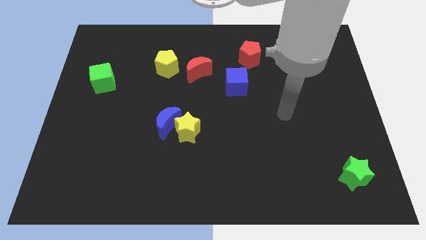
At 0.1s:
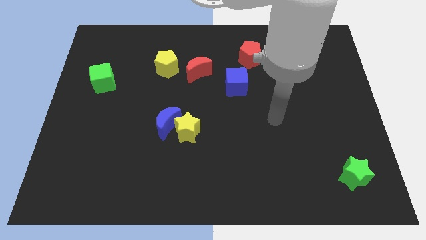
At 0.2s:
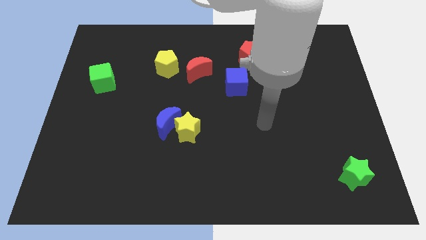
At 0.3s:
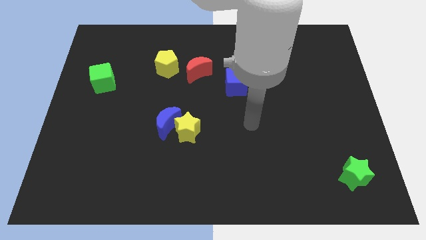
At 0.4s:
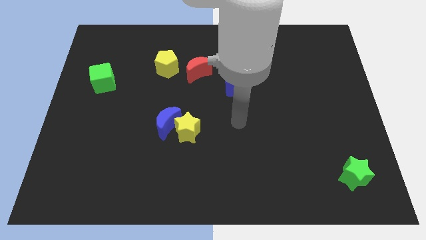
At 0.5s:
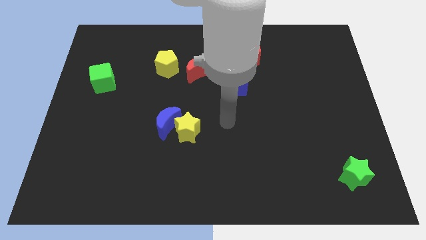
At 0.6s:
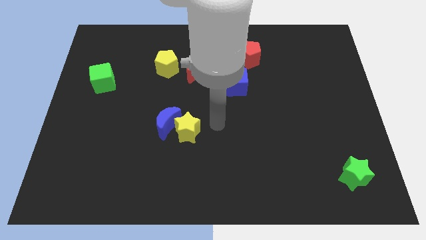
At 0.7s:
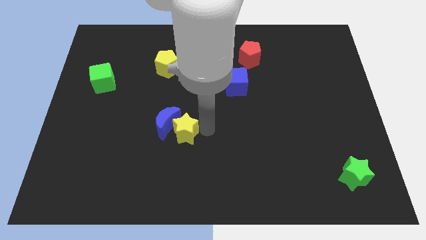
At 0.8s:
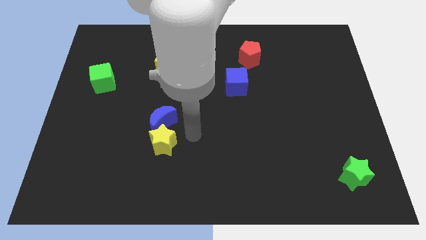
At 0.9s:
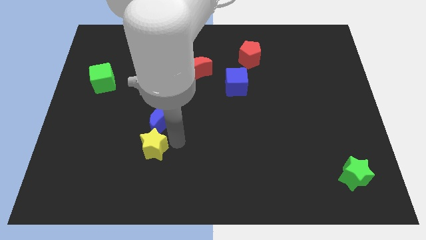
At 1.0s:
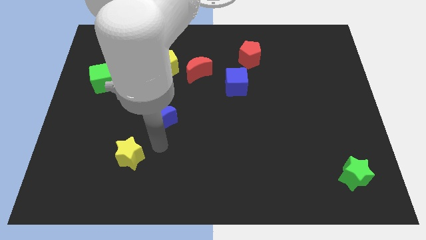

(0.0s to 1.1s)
separate the blue moon from the yellow star

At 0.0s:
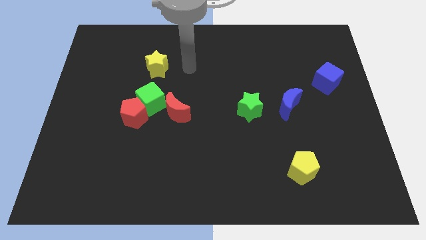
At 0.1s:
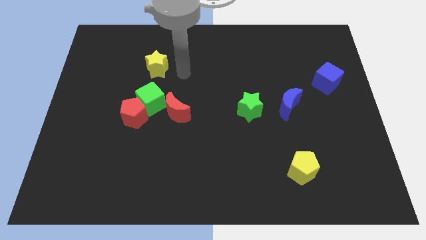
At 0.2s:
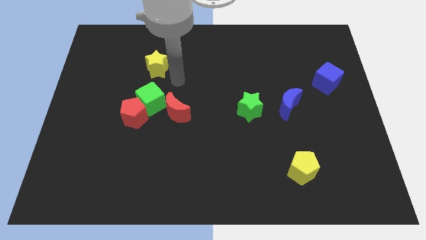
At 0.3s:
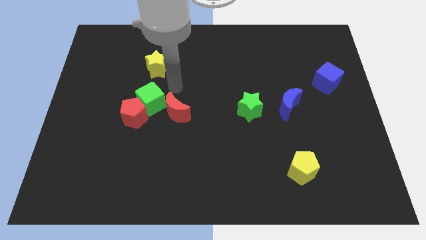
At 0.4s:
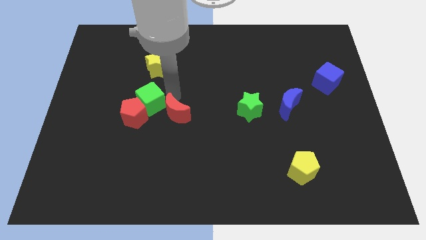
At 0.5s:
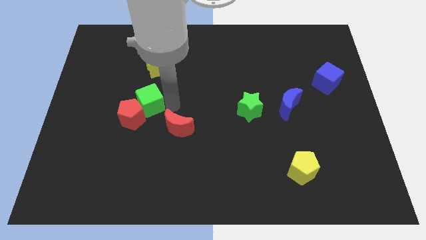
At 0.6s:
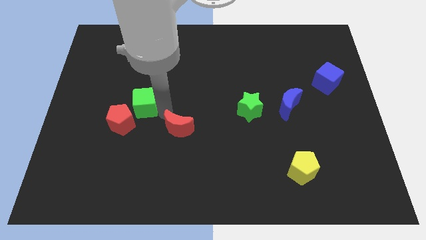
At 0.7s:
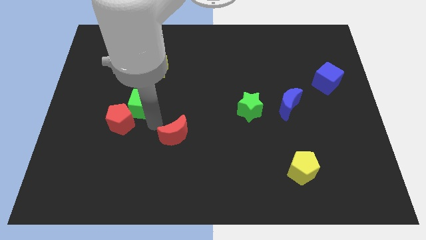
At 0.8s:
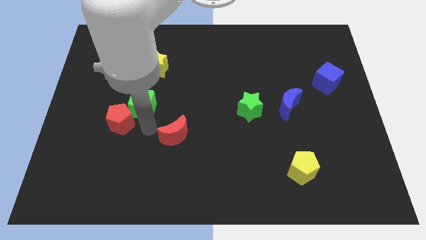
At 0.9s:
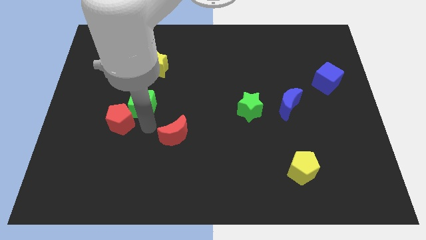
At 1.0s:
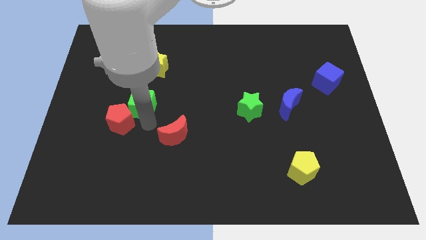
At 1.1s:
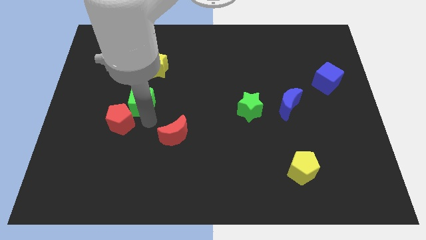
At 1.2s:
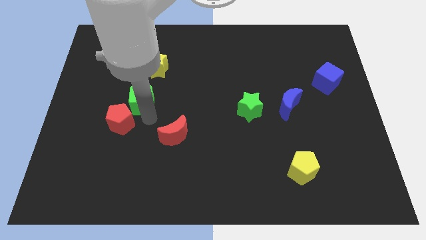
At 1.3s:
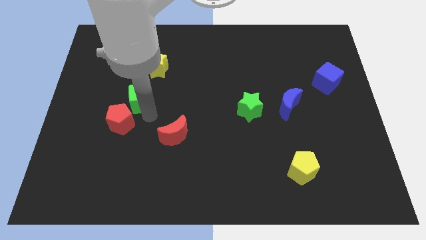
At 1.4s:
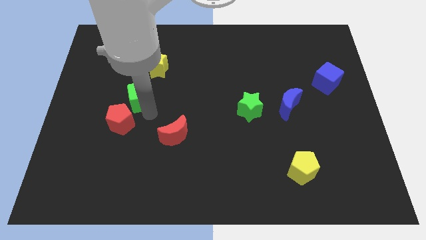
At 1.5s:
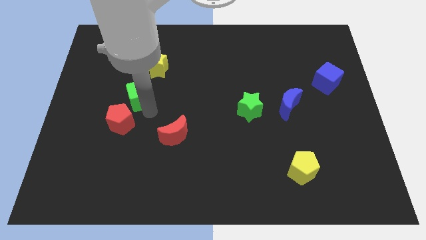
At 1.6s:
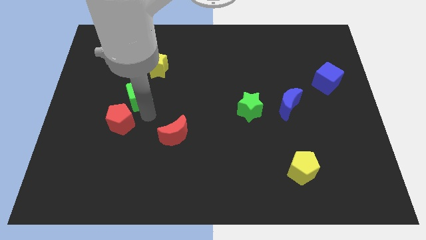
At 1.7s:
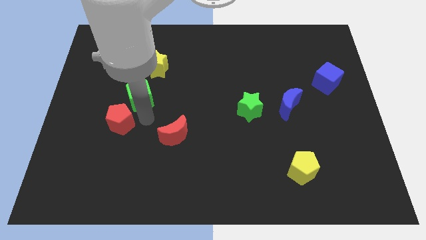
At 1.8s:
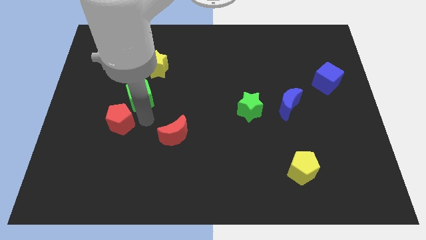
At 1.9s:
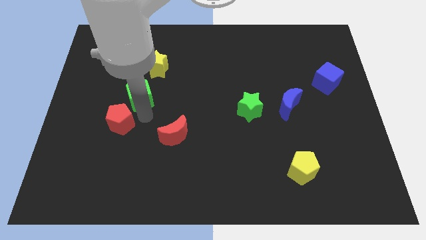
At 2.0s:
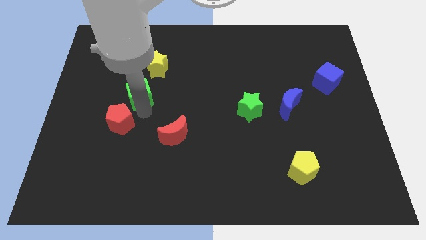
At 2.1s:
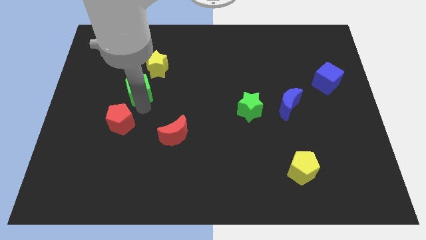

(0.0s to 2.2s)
move the green cube away from the red pentagon and red moon

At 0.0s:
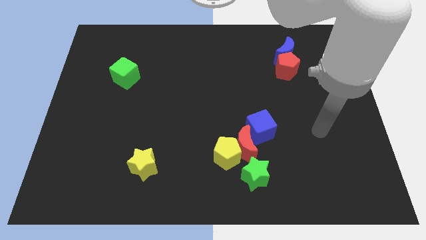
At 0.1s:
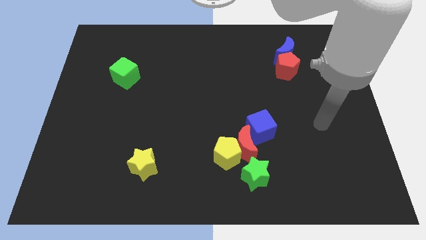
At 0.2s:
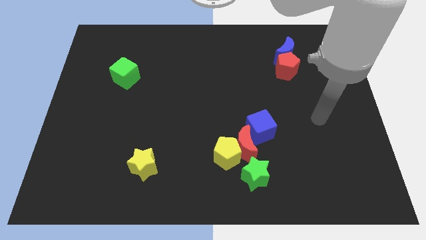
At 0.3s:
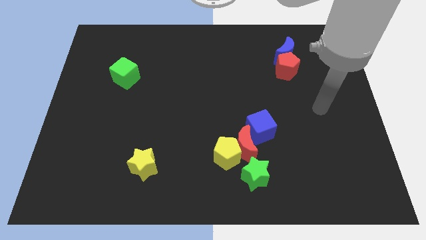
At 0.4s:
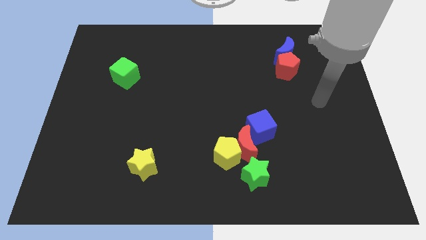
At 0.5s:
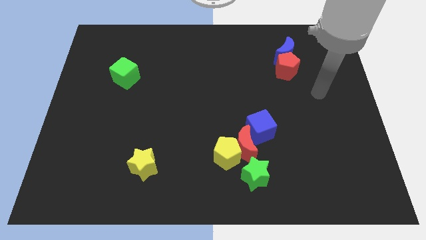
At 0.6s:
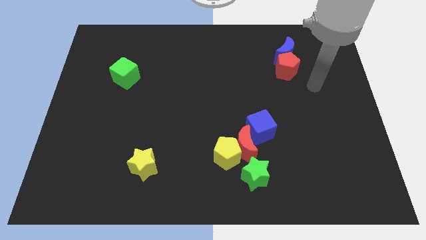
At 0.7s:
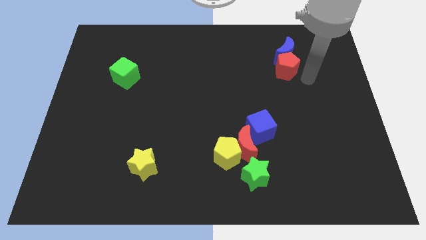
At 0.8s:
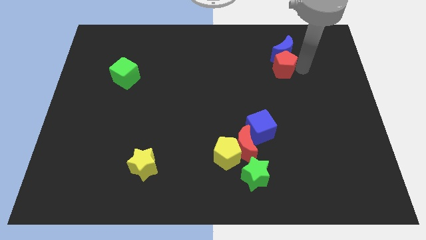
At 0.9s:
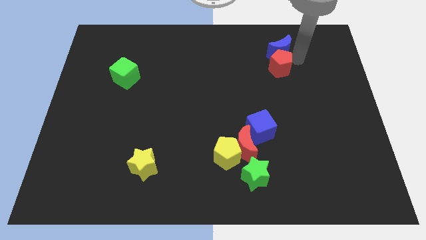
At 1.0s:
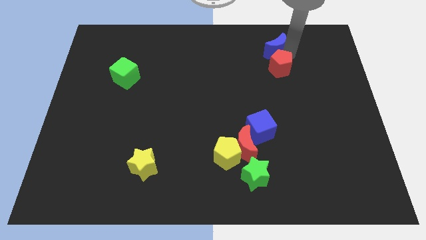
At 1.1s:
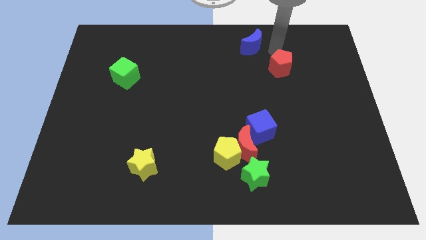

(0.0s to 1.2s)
move the red pentagon away from the blue moon

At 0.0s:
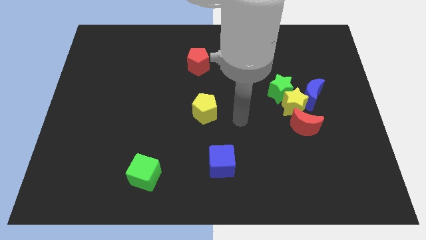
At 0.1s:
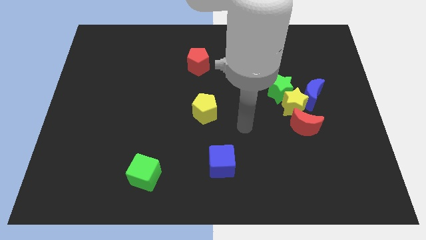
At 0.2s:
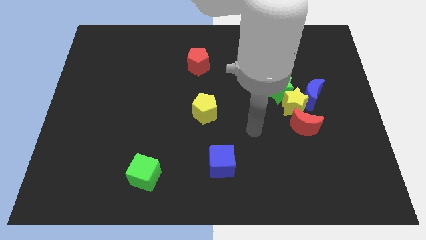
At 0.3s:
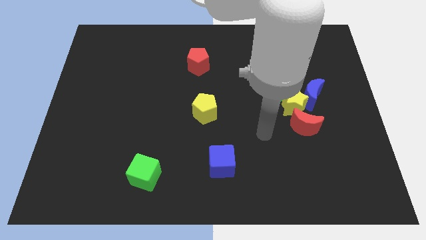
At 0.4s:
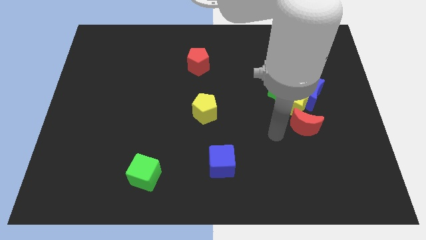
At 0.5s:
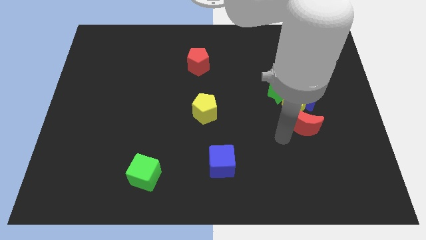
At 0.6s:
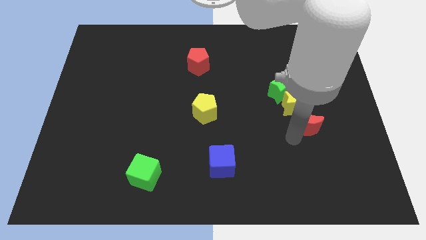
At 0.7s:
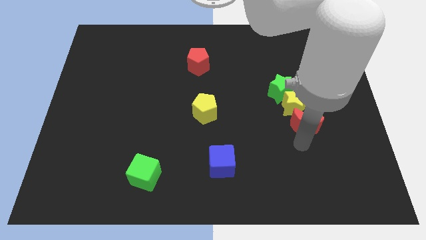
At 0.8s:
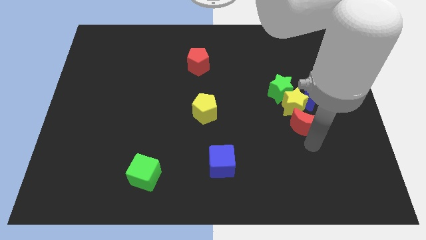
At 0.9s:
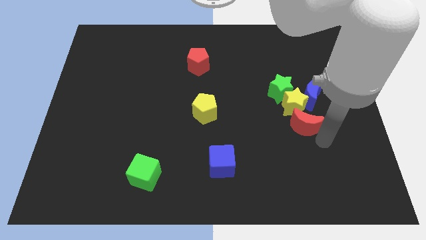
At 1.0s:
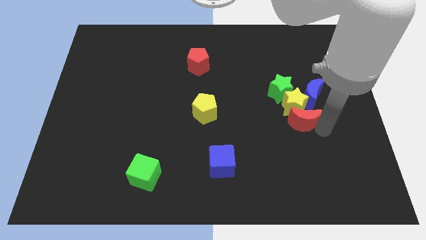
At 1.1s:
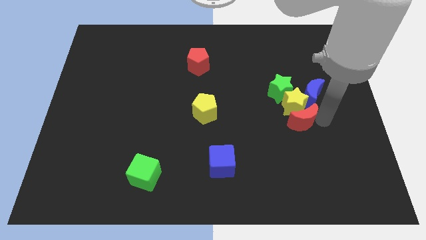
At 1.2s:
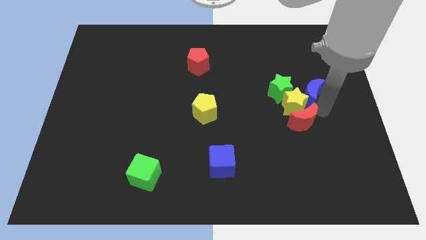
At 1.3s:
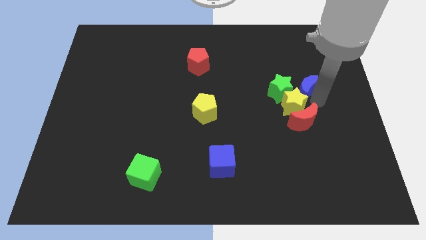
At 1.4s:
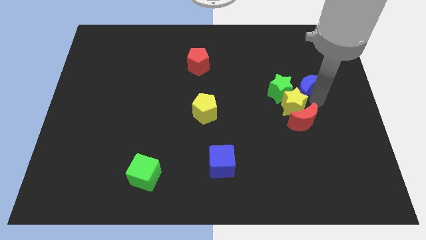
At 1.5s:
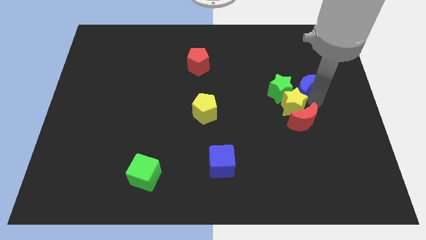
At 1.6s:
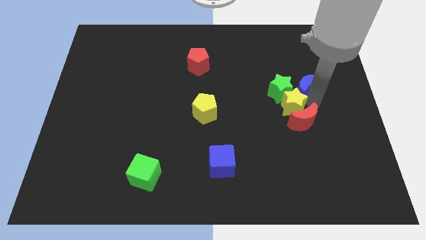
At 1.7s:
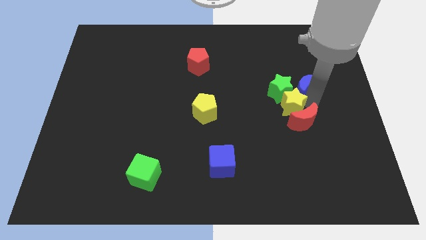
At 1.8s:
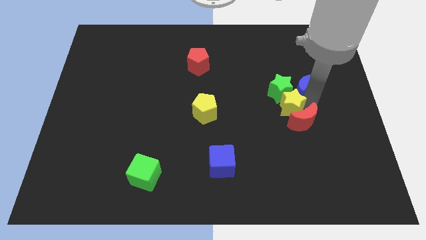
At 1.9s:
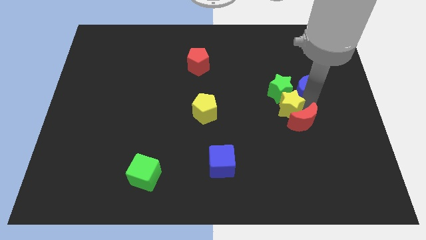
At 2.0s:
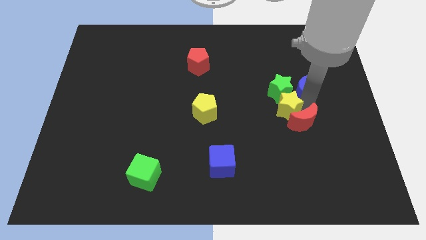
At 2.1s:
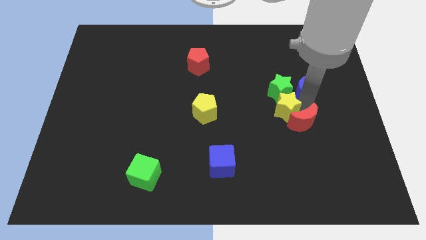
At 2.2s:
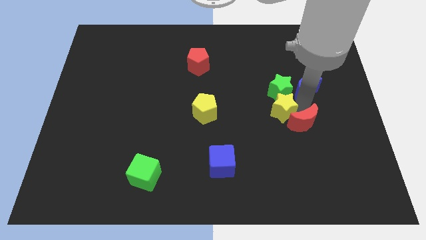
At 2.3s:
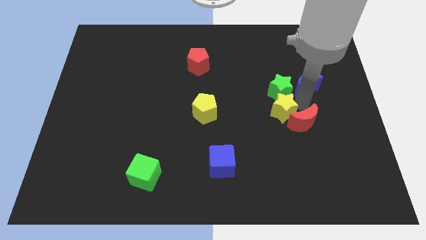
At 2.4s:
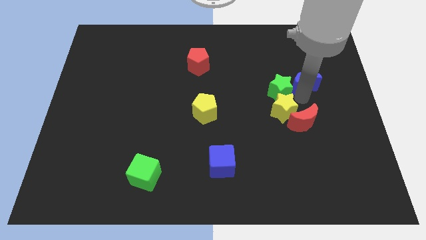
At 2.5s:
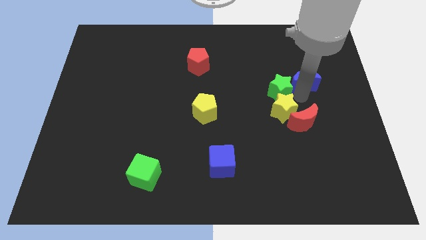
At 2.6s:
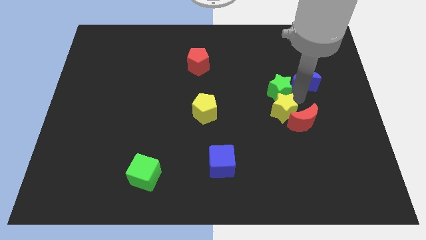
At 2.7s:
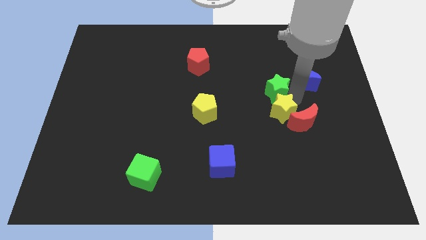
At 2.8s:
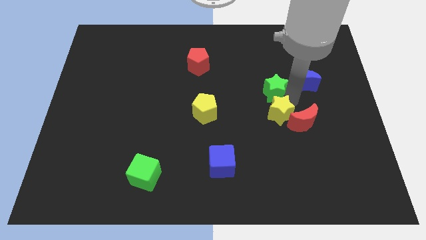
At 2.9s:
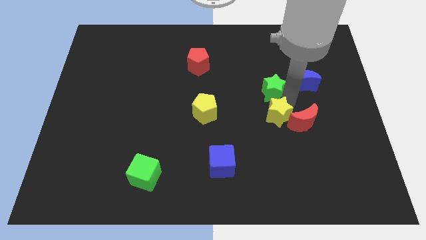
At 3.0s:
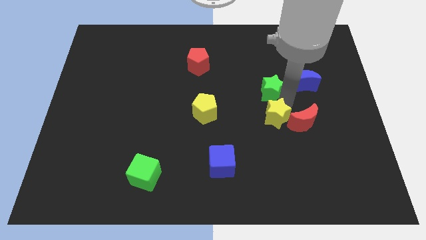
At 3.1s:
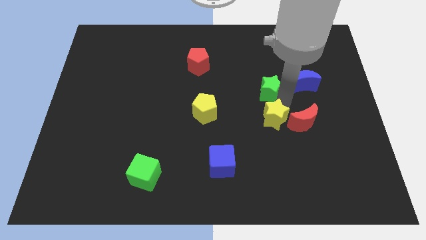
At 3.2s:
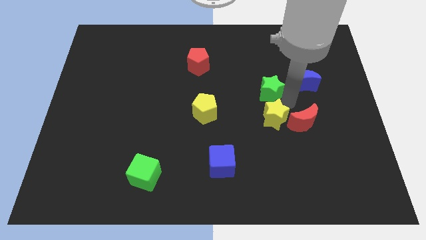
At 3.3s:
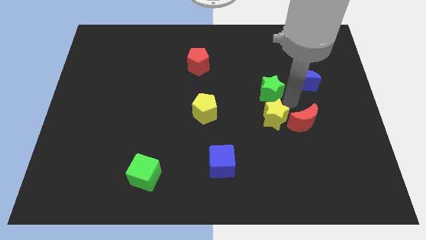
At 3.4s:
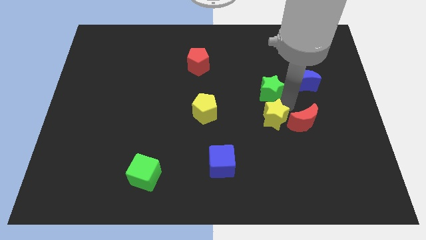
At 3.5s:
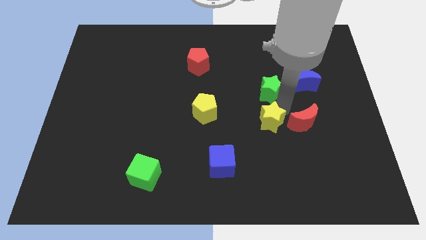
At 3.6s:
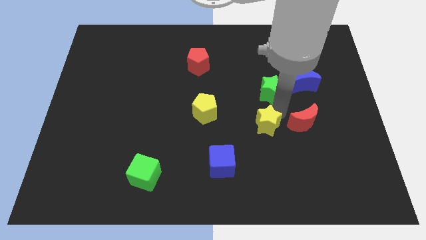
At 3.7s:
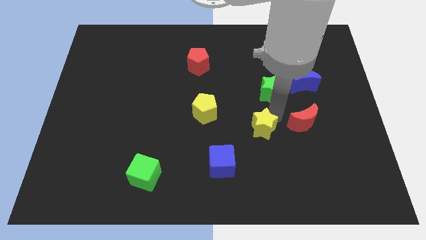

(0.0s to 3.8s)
move the yellow star away from the green star, blue moon, and red moon

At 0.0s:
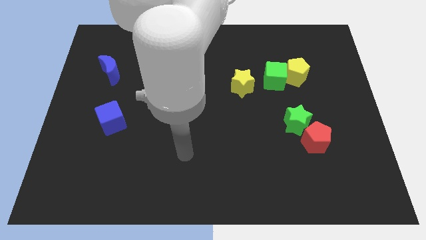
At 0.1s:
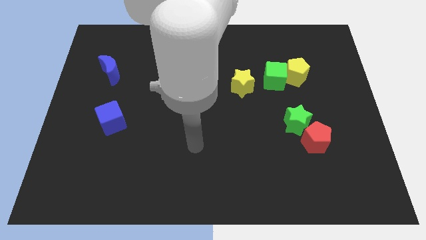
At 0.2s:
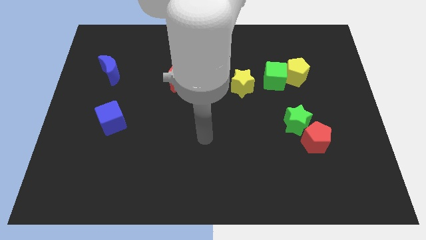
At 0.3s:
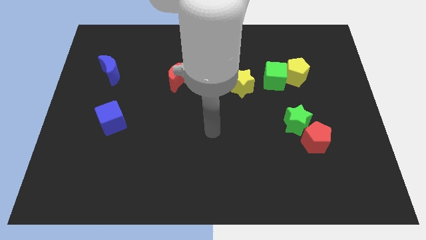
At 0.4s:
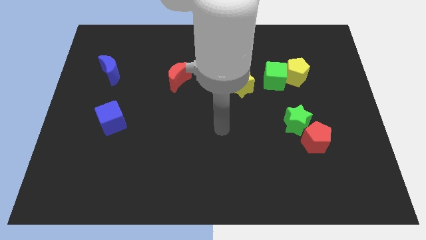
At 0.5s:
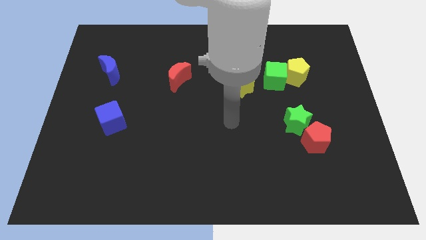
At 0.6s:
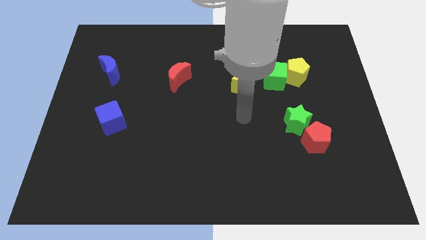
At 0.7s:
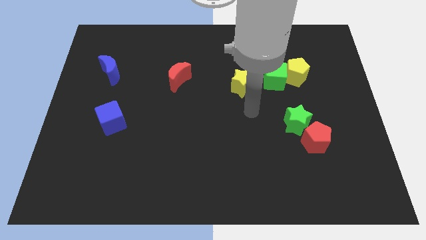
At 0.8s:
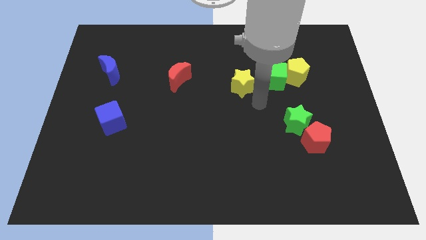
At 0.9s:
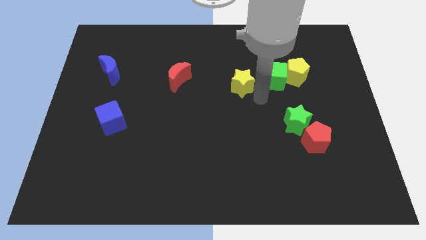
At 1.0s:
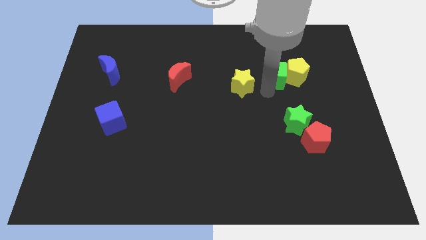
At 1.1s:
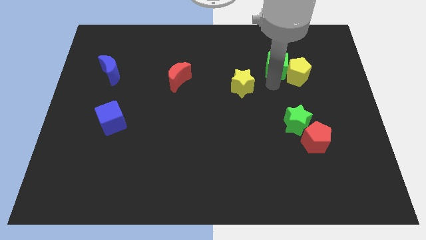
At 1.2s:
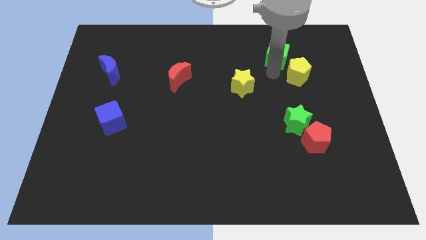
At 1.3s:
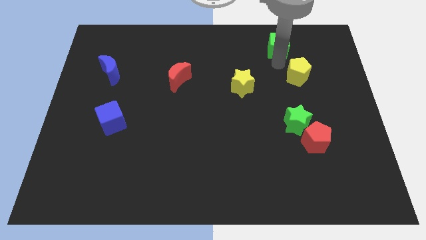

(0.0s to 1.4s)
move the yellow pentagon away from the green cube
